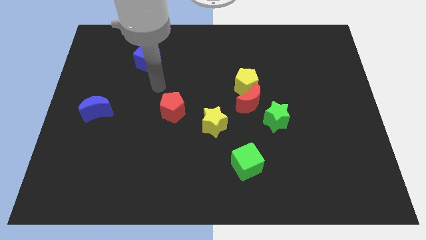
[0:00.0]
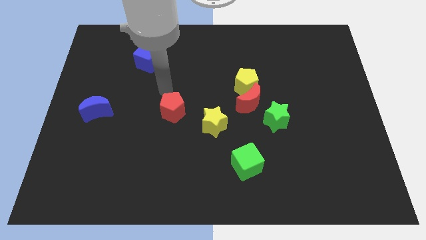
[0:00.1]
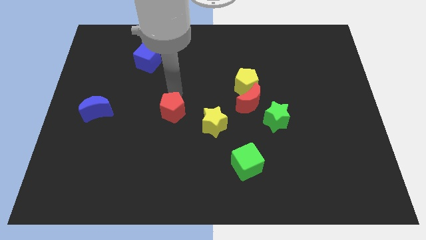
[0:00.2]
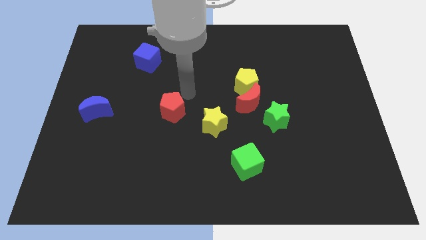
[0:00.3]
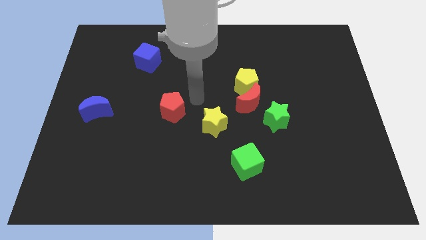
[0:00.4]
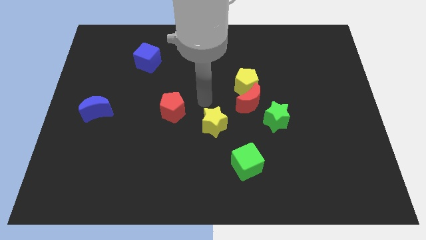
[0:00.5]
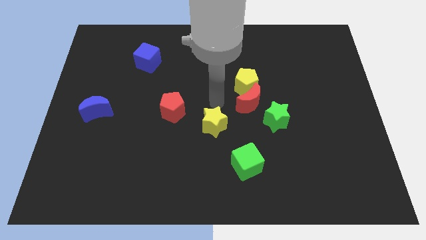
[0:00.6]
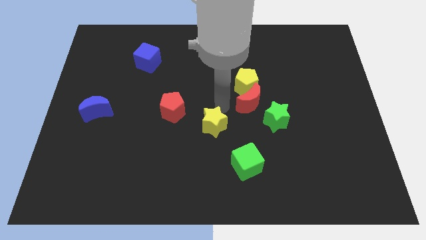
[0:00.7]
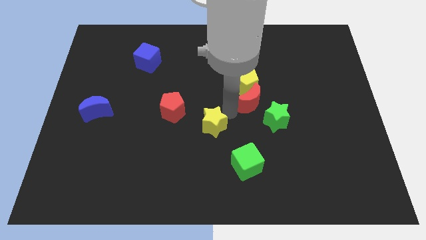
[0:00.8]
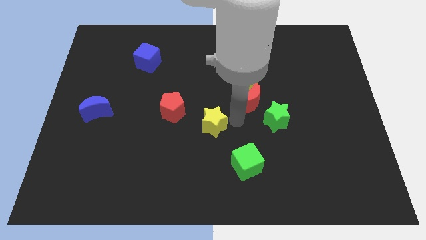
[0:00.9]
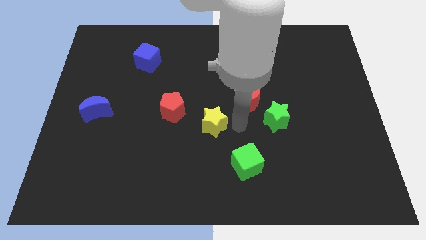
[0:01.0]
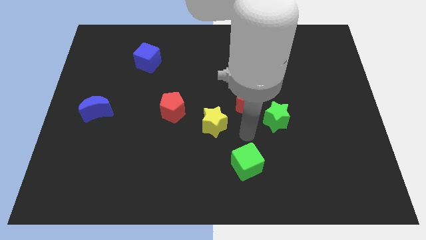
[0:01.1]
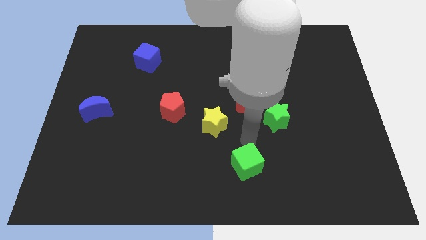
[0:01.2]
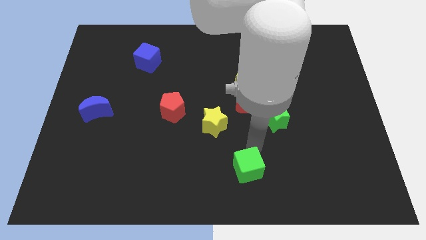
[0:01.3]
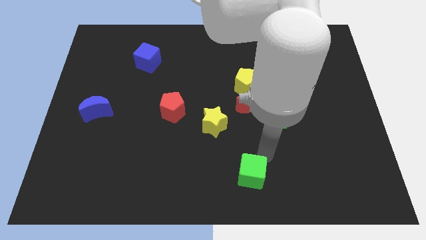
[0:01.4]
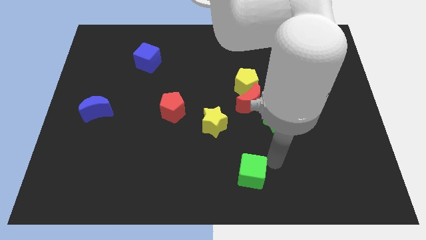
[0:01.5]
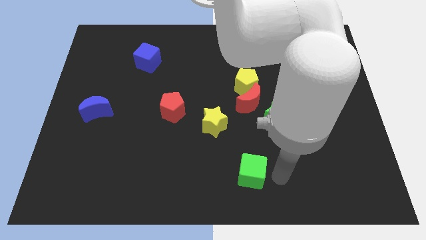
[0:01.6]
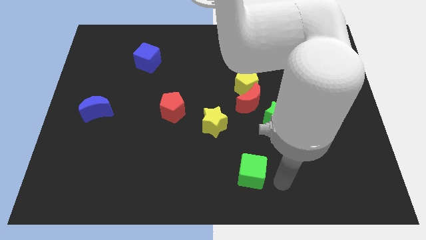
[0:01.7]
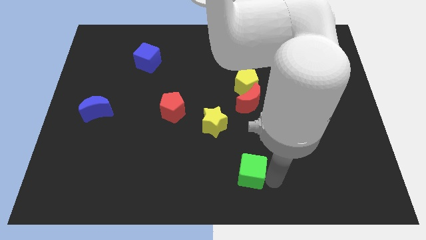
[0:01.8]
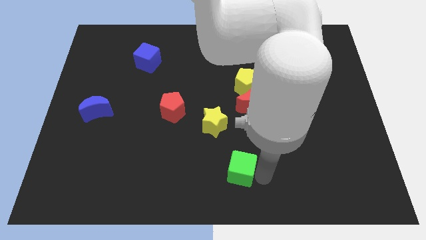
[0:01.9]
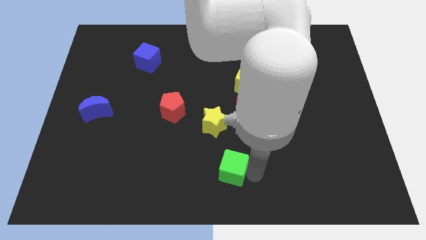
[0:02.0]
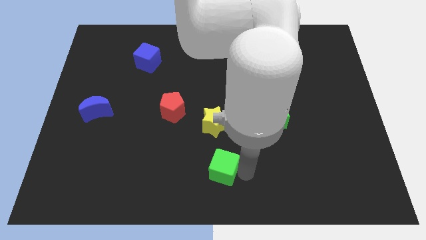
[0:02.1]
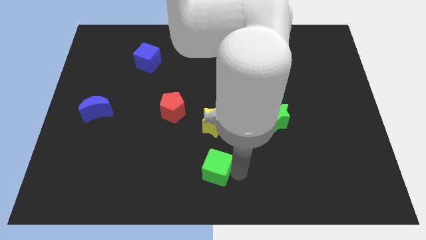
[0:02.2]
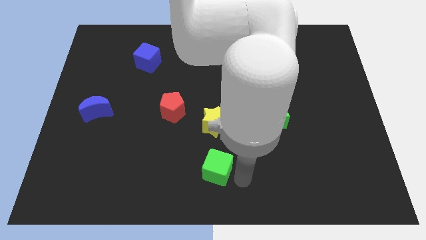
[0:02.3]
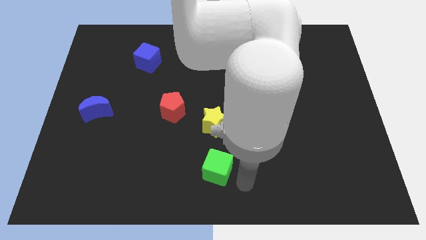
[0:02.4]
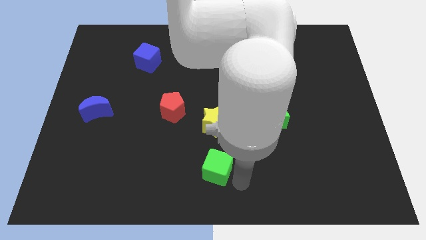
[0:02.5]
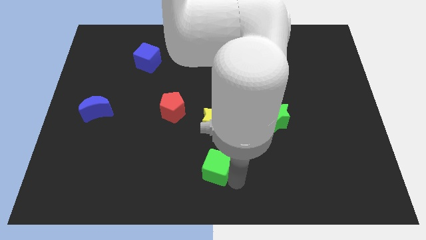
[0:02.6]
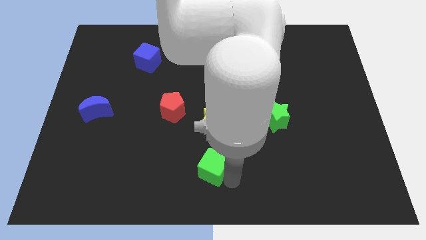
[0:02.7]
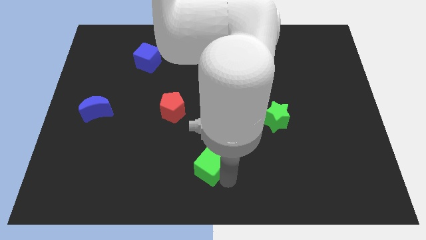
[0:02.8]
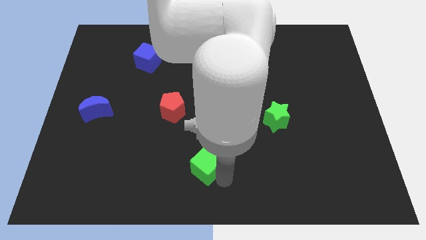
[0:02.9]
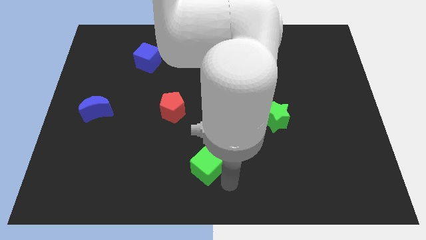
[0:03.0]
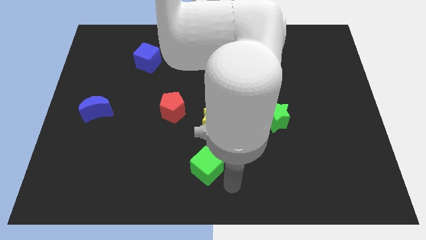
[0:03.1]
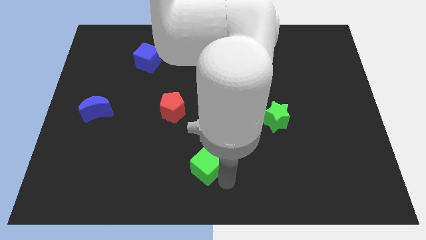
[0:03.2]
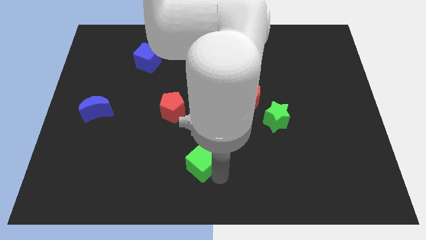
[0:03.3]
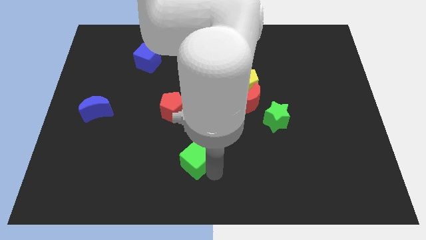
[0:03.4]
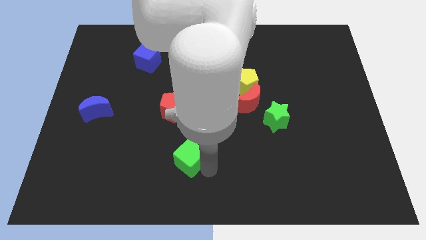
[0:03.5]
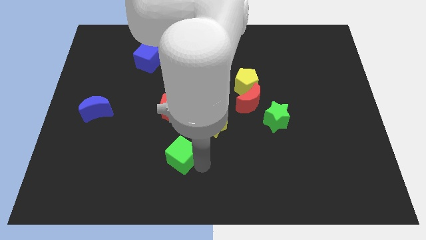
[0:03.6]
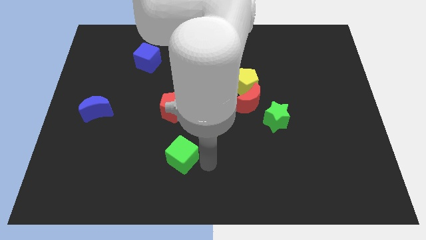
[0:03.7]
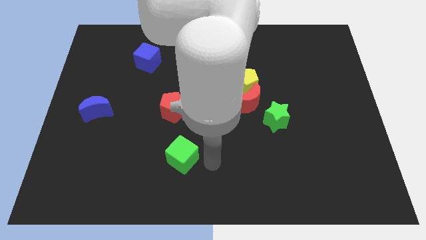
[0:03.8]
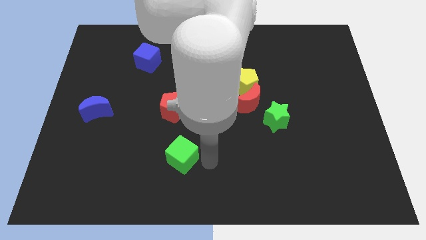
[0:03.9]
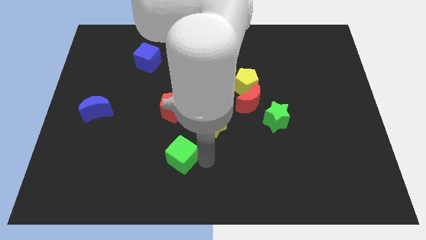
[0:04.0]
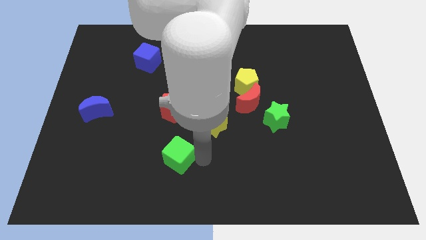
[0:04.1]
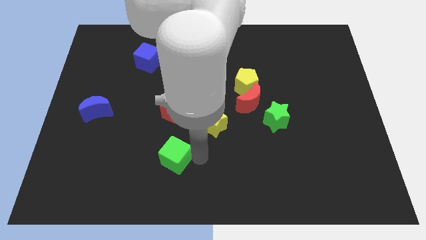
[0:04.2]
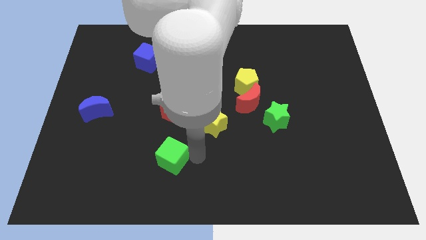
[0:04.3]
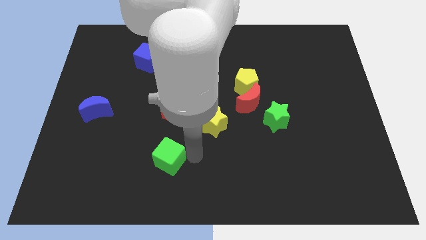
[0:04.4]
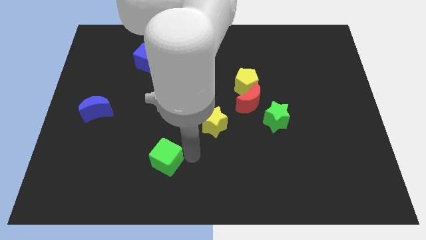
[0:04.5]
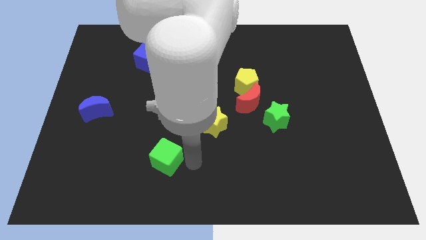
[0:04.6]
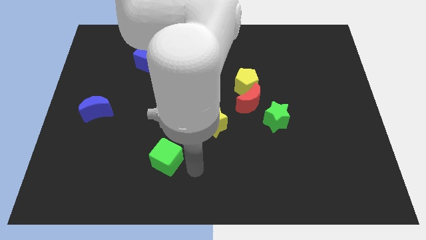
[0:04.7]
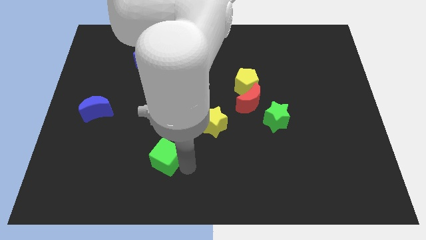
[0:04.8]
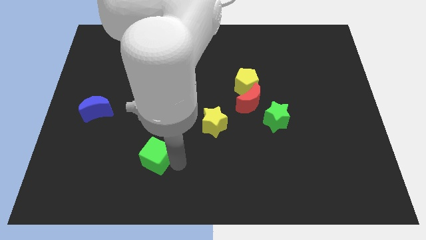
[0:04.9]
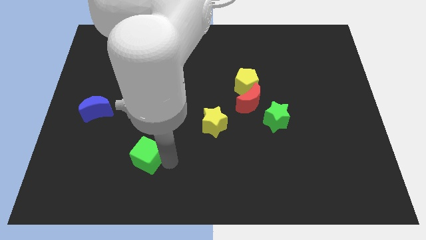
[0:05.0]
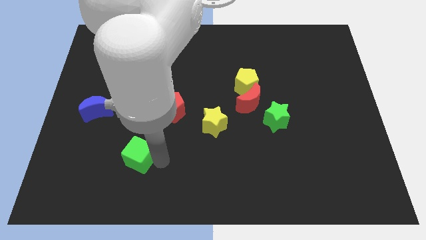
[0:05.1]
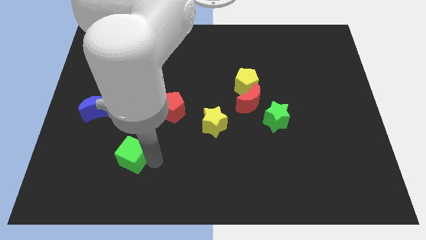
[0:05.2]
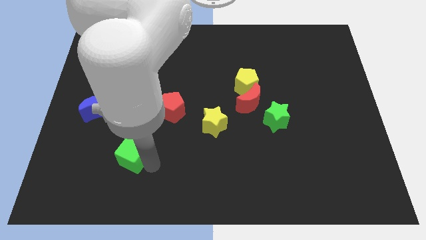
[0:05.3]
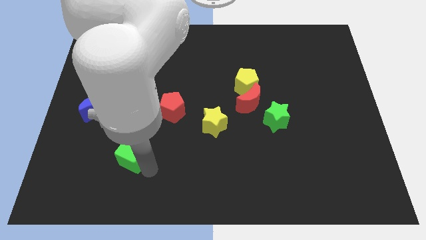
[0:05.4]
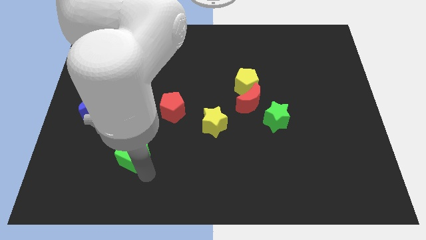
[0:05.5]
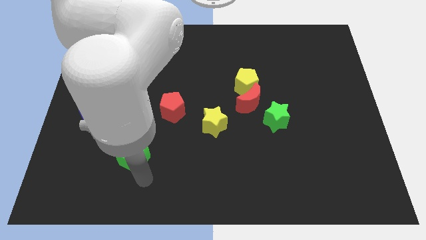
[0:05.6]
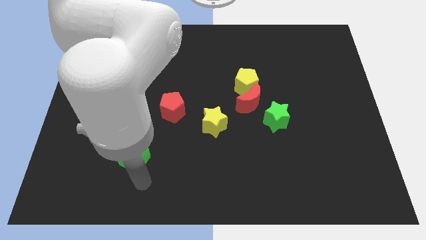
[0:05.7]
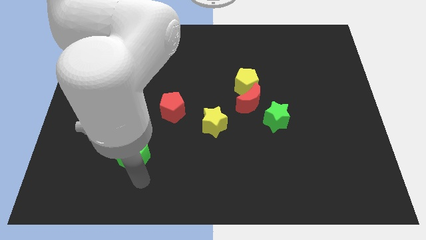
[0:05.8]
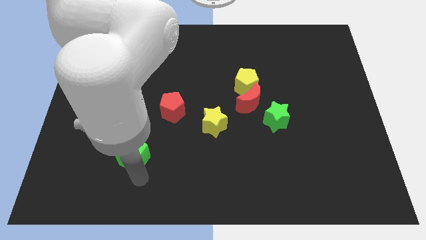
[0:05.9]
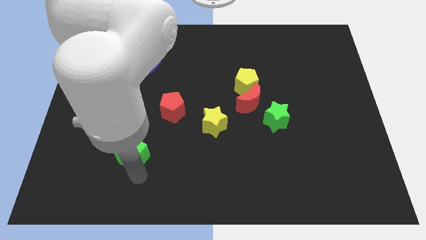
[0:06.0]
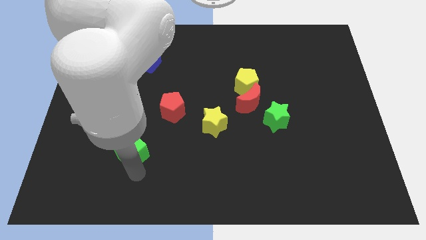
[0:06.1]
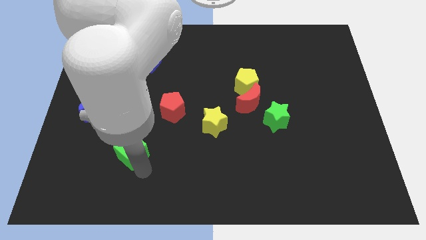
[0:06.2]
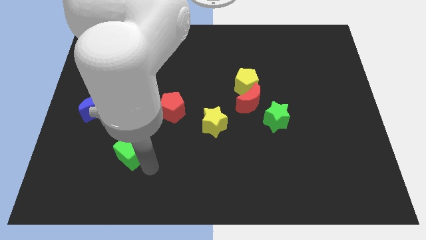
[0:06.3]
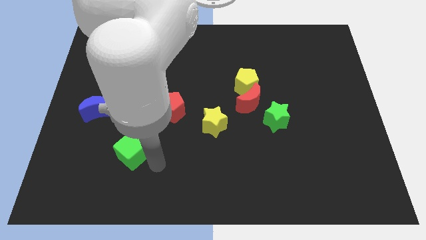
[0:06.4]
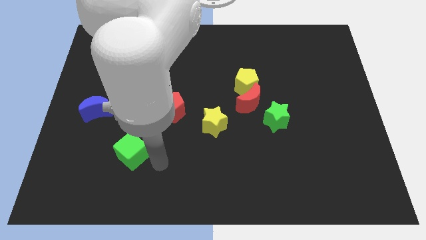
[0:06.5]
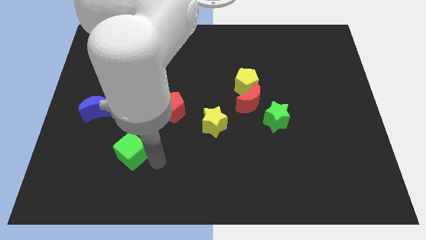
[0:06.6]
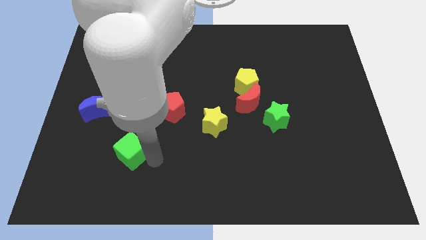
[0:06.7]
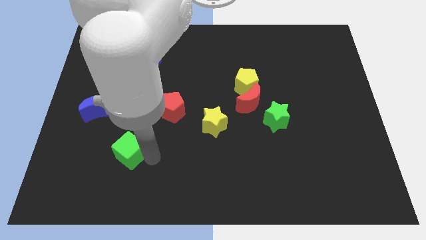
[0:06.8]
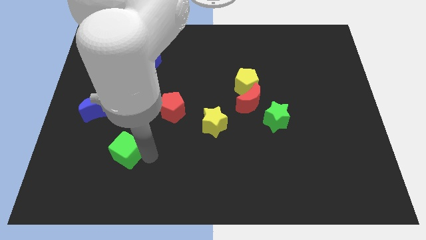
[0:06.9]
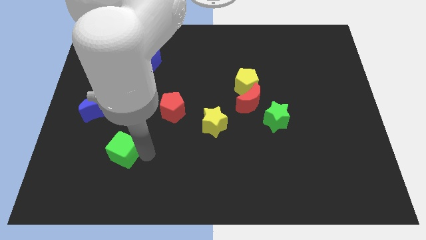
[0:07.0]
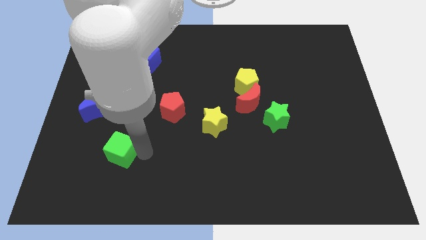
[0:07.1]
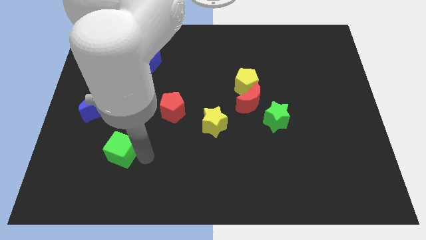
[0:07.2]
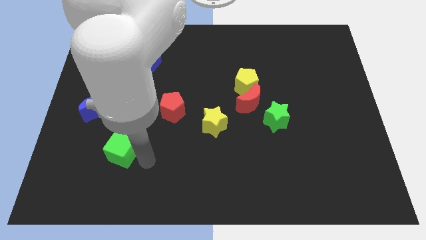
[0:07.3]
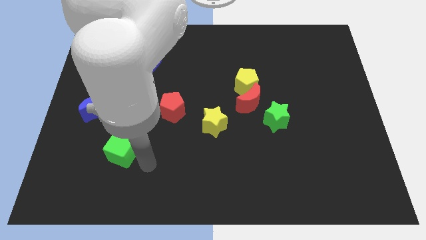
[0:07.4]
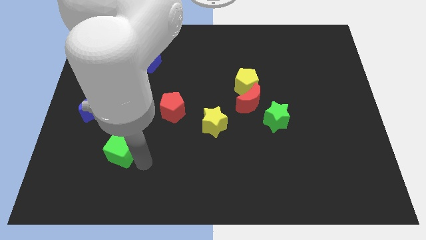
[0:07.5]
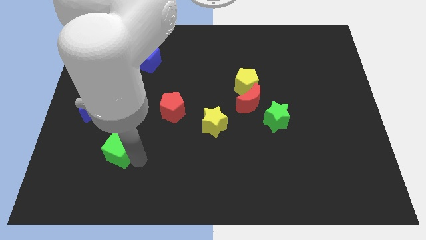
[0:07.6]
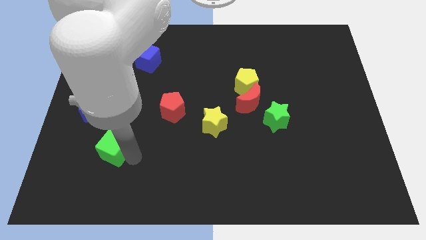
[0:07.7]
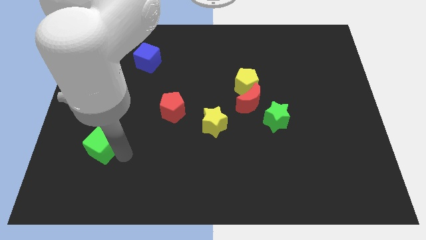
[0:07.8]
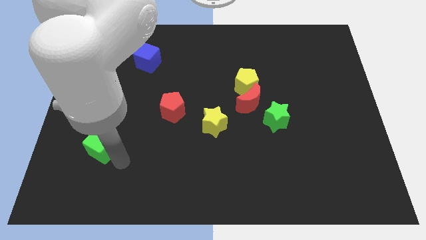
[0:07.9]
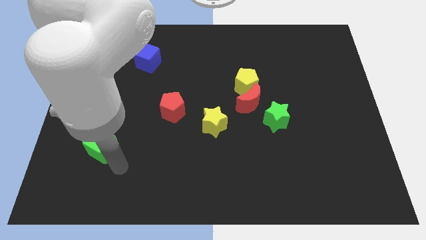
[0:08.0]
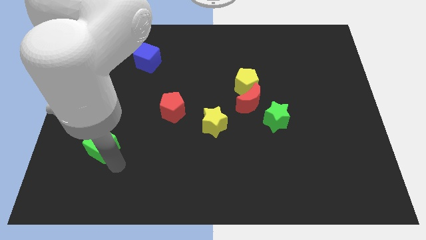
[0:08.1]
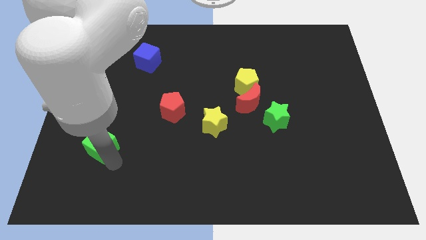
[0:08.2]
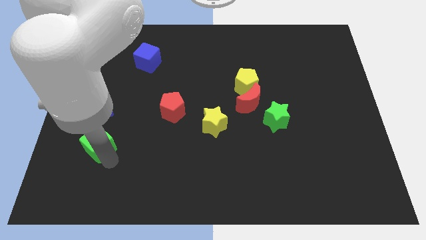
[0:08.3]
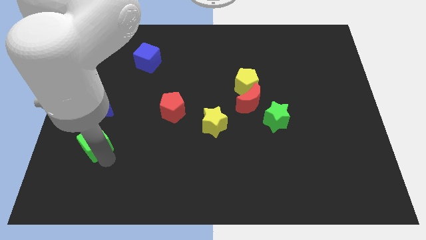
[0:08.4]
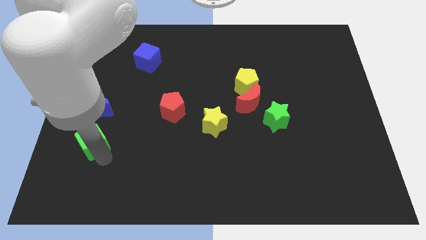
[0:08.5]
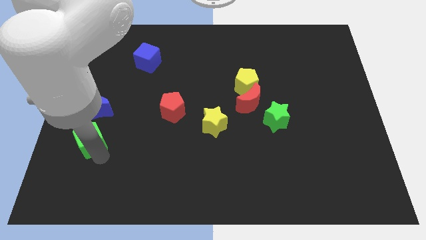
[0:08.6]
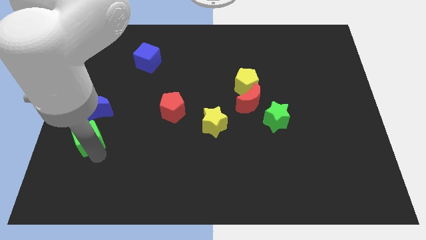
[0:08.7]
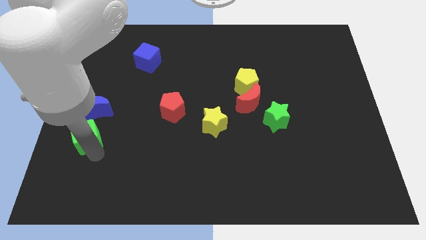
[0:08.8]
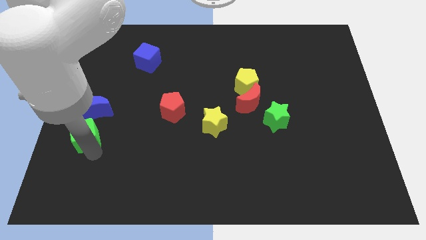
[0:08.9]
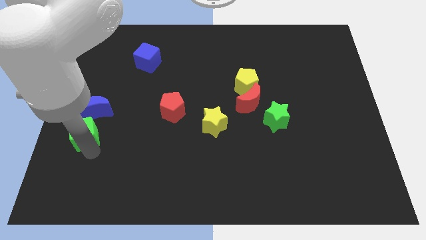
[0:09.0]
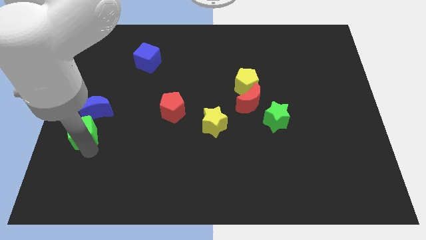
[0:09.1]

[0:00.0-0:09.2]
slide the green cube to the left side of the board
